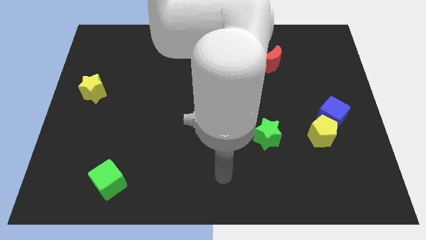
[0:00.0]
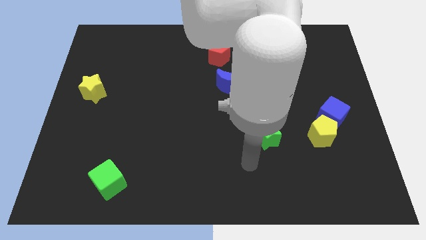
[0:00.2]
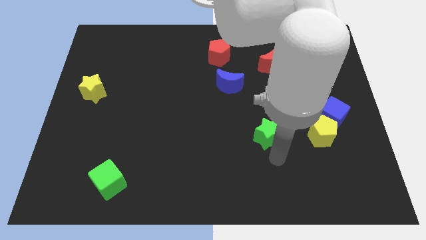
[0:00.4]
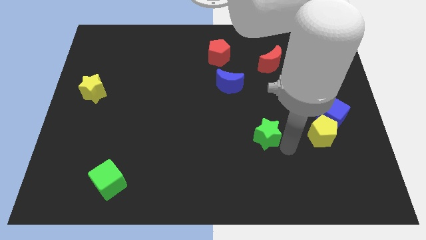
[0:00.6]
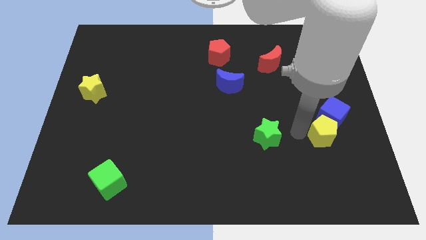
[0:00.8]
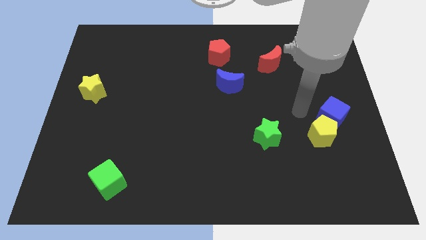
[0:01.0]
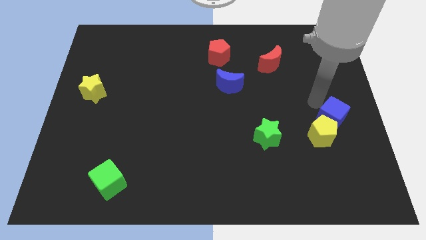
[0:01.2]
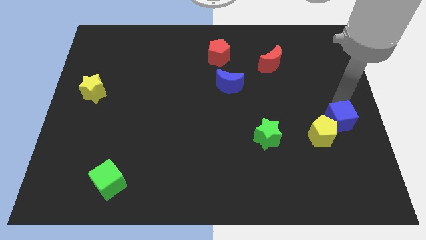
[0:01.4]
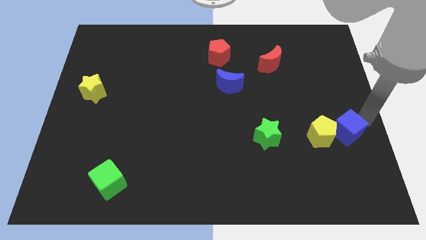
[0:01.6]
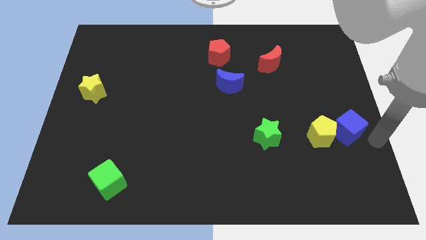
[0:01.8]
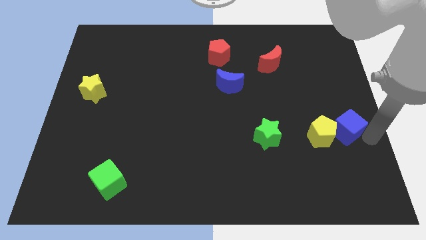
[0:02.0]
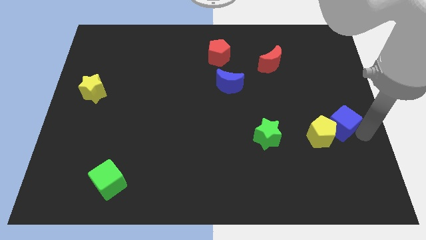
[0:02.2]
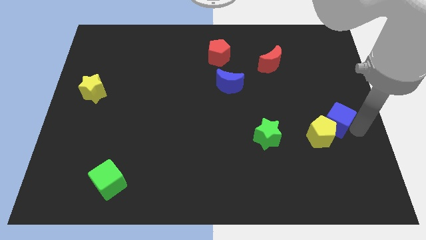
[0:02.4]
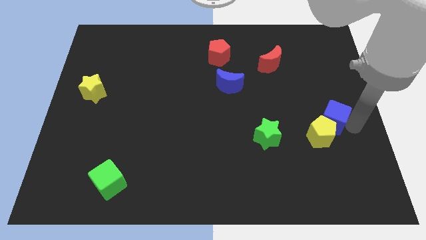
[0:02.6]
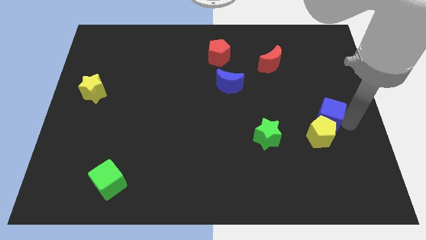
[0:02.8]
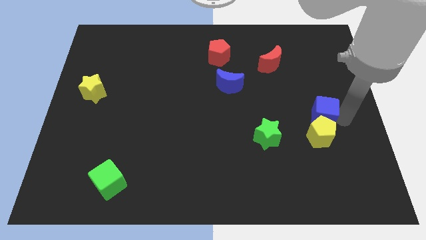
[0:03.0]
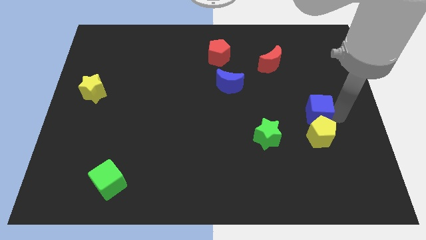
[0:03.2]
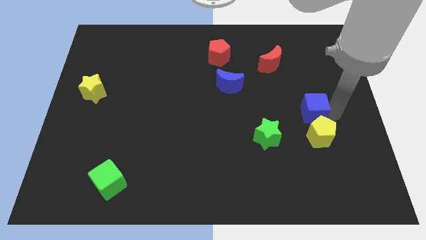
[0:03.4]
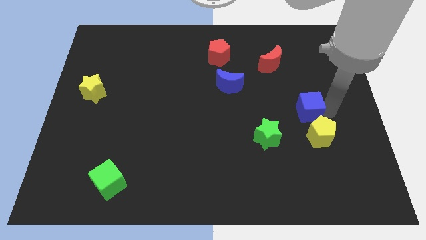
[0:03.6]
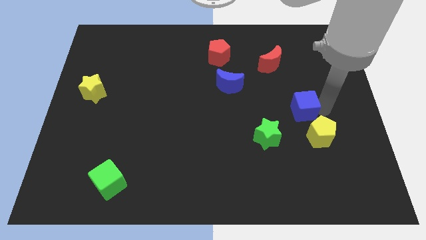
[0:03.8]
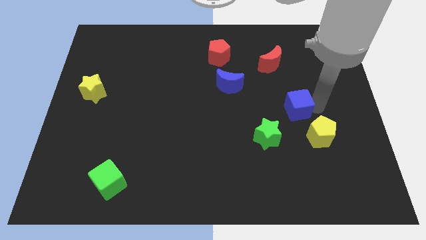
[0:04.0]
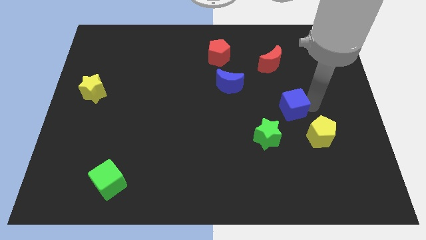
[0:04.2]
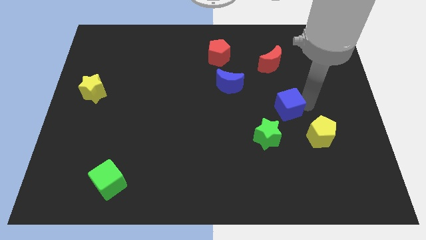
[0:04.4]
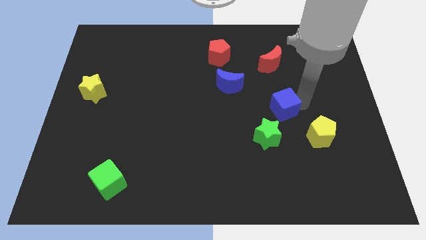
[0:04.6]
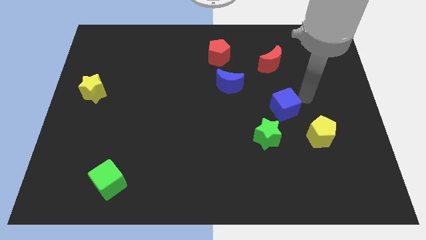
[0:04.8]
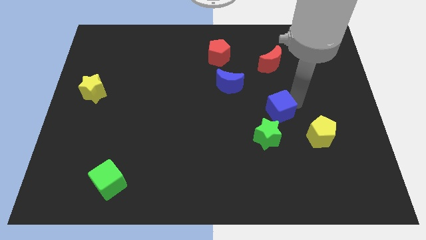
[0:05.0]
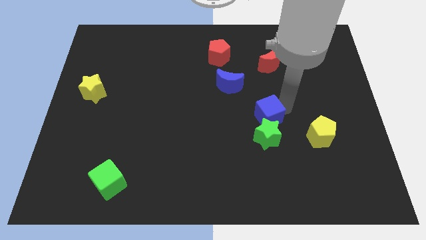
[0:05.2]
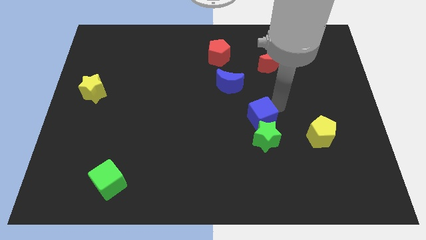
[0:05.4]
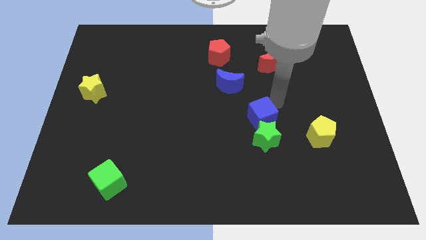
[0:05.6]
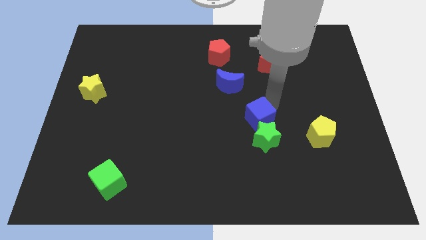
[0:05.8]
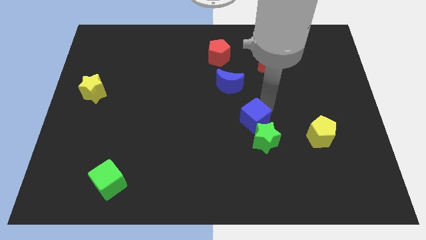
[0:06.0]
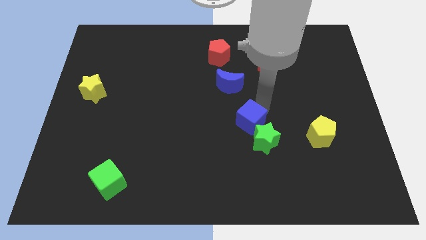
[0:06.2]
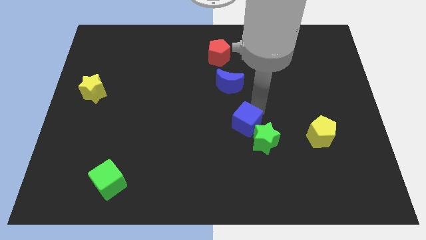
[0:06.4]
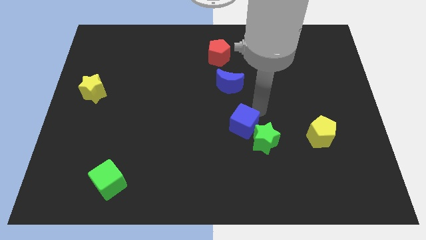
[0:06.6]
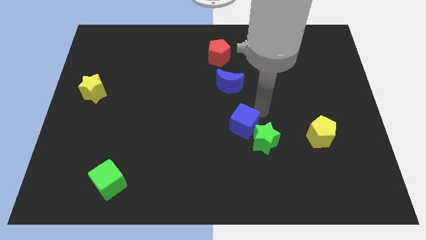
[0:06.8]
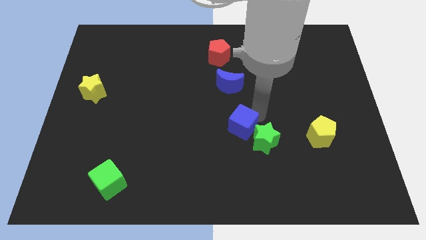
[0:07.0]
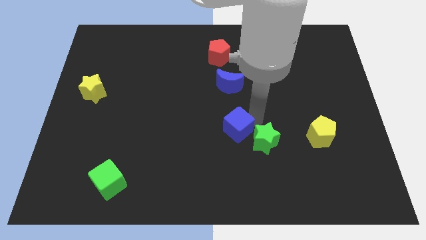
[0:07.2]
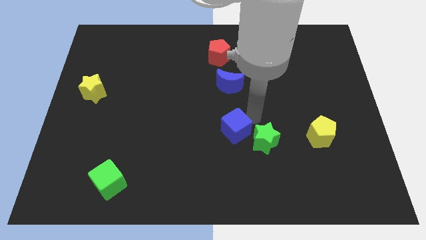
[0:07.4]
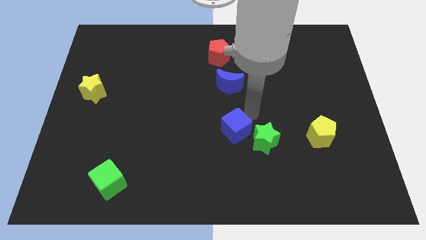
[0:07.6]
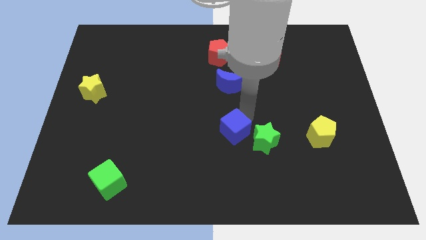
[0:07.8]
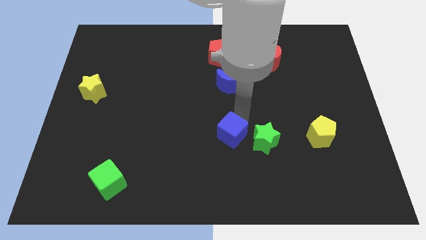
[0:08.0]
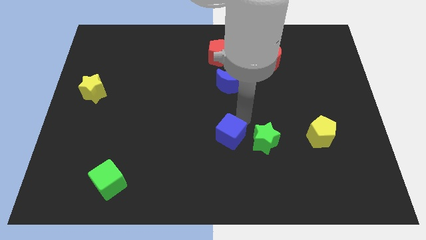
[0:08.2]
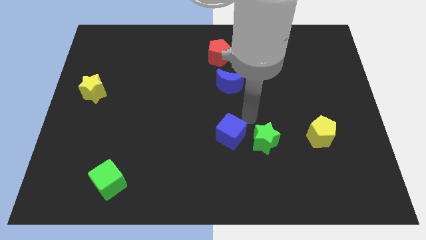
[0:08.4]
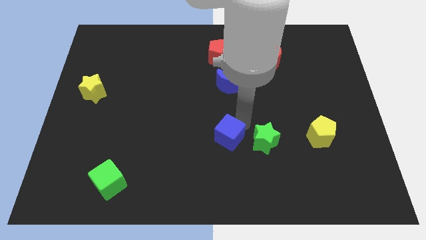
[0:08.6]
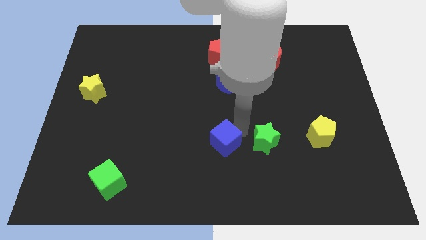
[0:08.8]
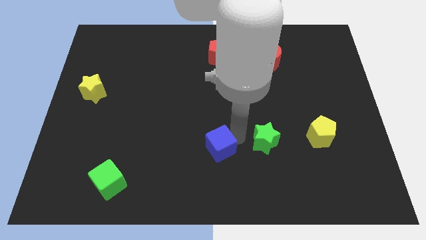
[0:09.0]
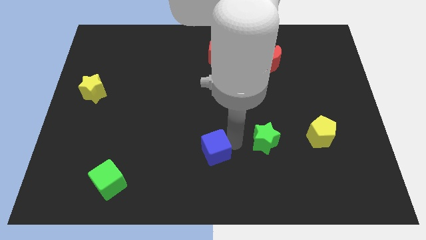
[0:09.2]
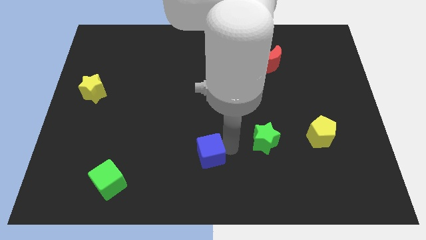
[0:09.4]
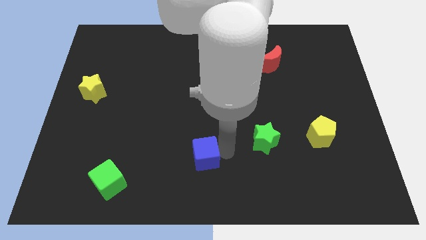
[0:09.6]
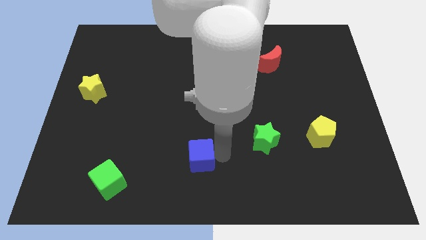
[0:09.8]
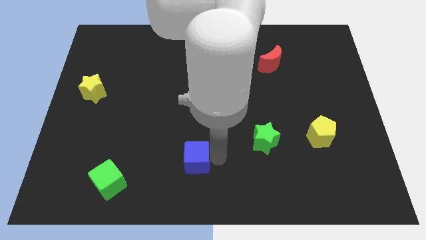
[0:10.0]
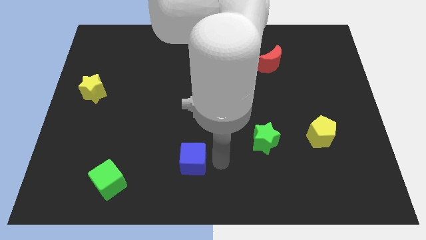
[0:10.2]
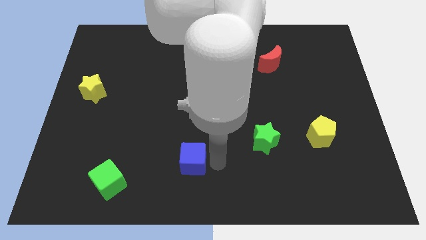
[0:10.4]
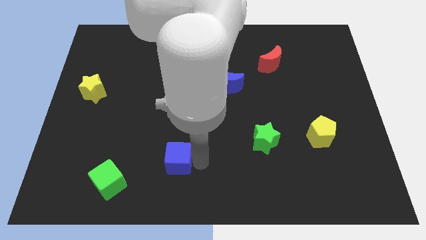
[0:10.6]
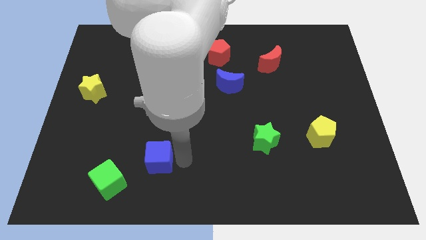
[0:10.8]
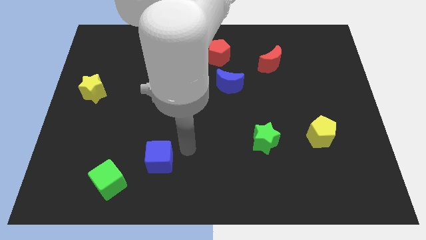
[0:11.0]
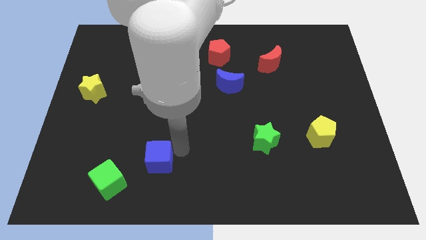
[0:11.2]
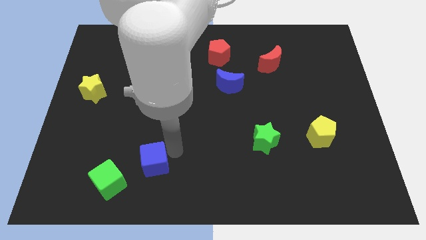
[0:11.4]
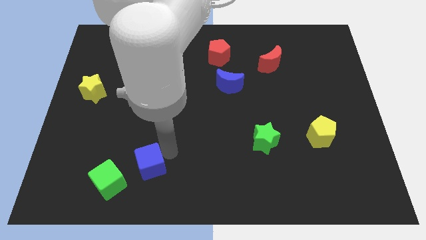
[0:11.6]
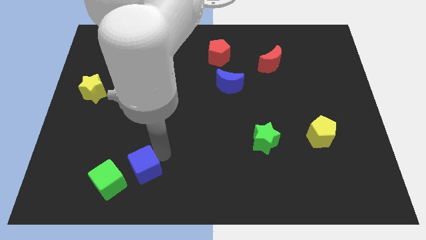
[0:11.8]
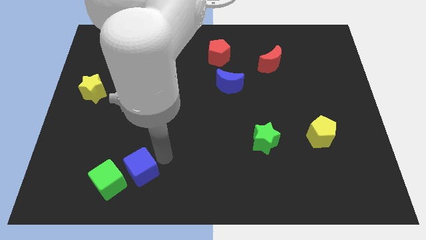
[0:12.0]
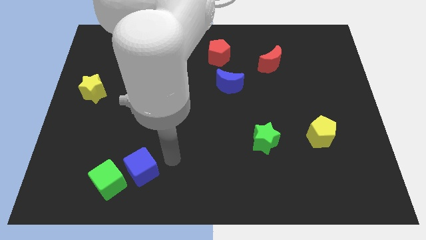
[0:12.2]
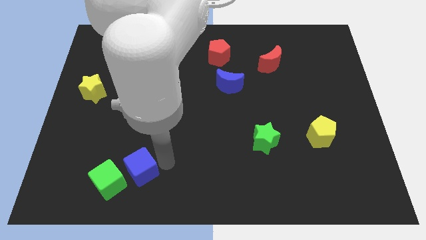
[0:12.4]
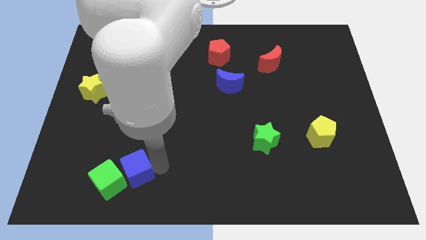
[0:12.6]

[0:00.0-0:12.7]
move the blue cube next to the green cube

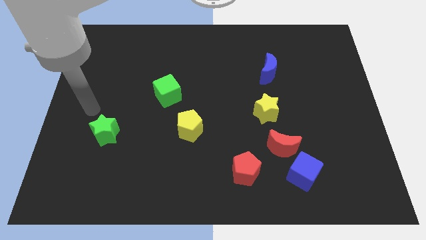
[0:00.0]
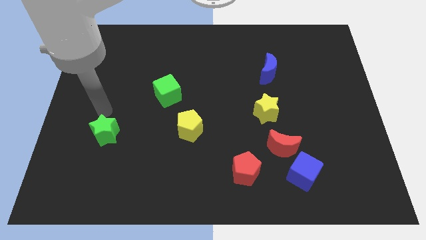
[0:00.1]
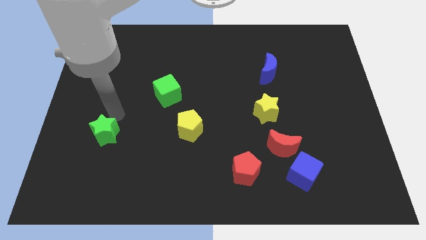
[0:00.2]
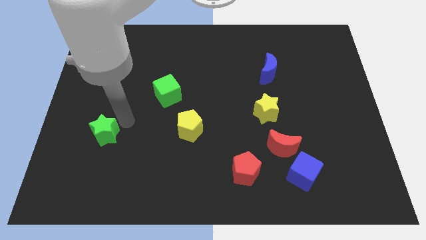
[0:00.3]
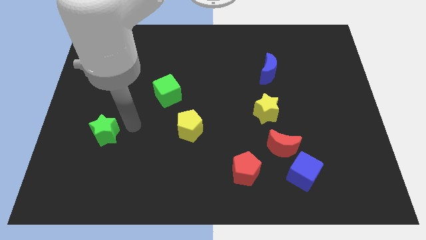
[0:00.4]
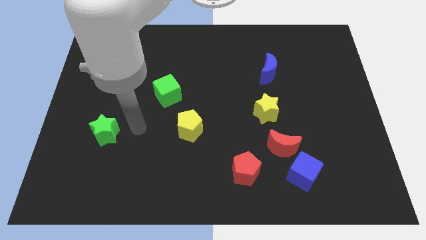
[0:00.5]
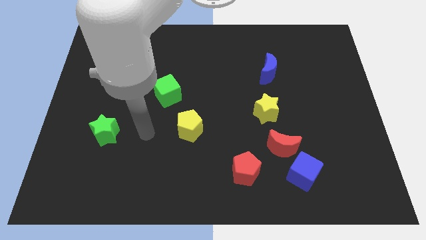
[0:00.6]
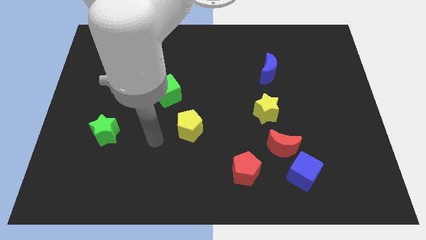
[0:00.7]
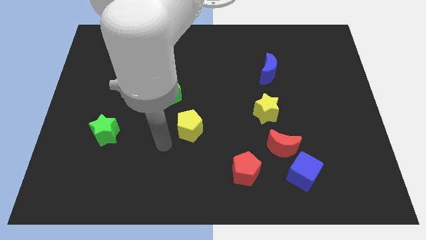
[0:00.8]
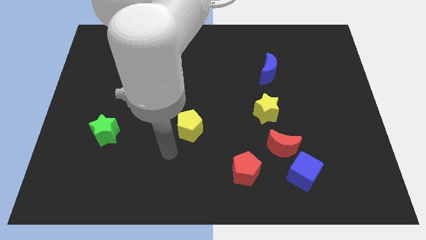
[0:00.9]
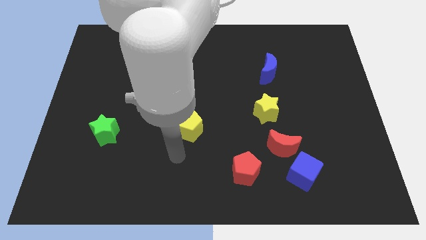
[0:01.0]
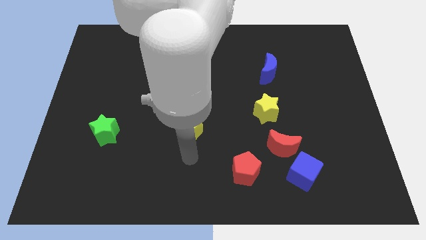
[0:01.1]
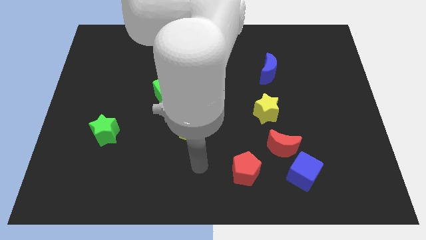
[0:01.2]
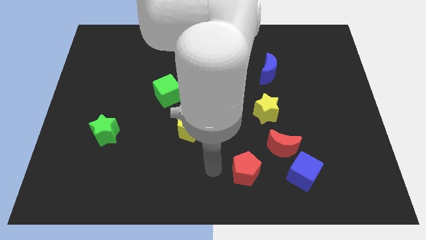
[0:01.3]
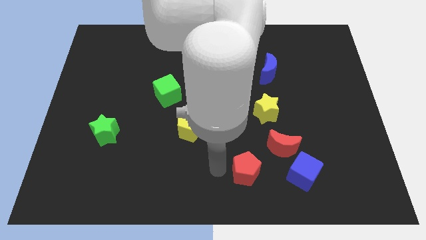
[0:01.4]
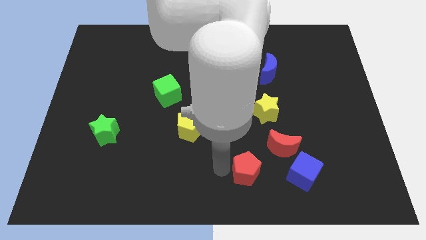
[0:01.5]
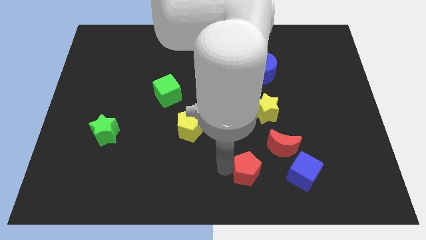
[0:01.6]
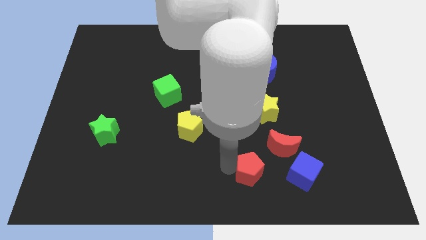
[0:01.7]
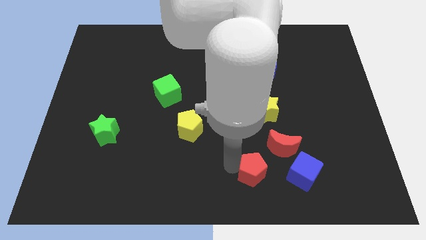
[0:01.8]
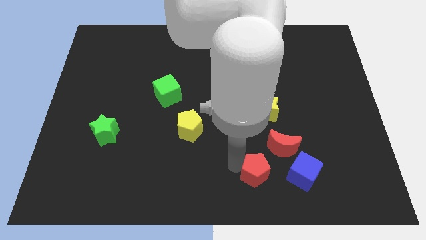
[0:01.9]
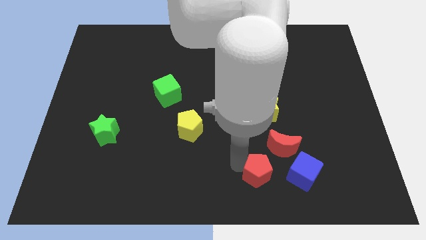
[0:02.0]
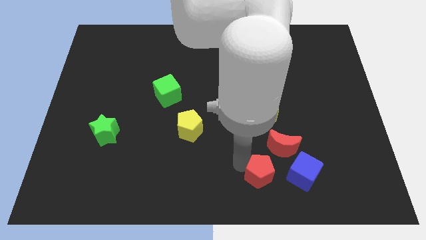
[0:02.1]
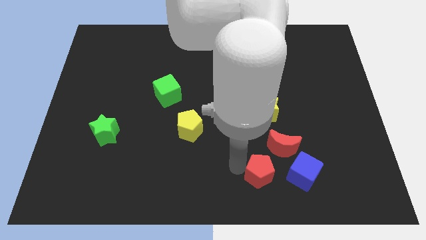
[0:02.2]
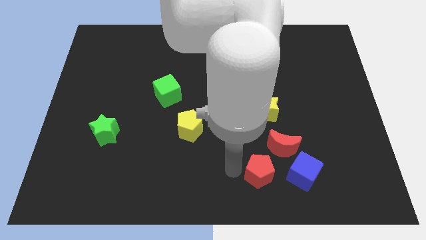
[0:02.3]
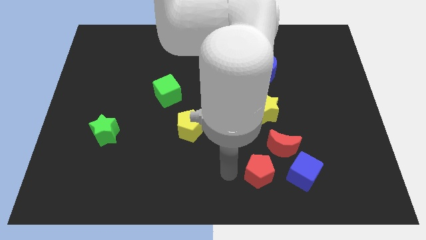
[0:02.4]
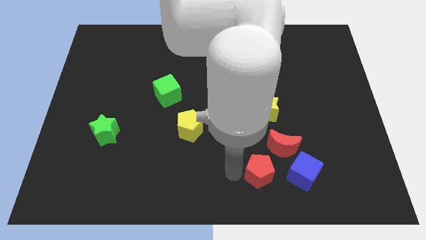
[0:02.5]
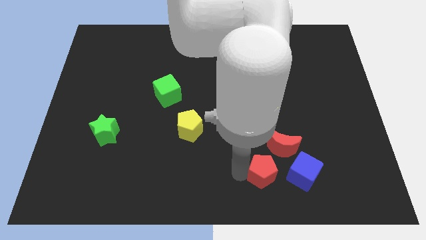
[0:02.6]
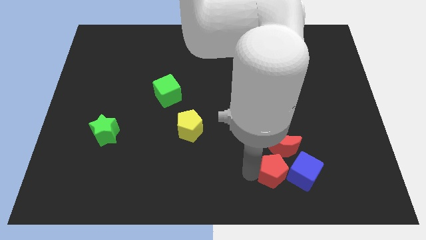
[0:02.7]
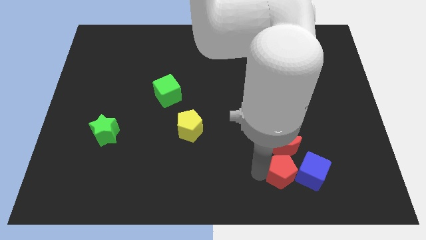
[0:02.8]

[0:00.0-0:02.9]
push the red pentagon next to the blue cube
